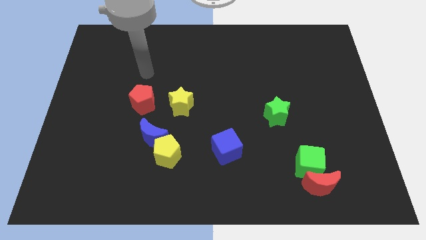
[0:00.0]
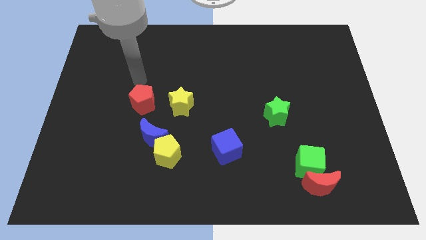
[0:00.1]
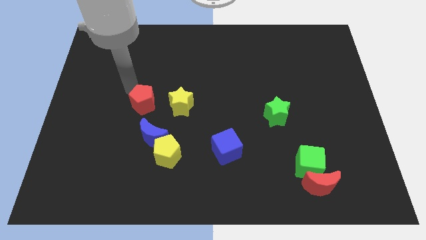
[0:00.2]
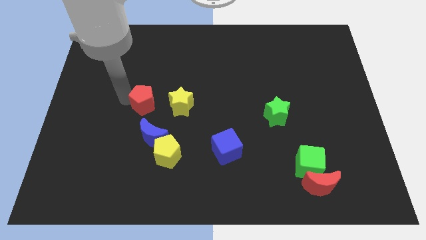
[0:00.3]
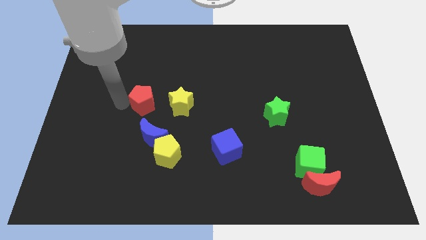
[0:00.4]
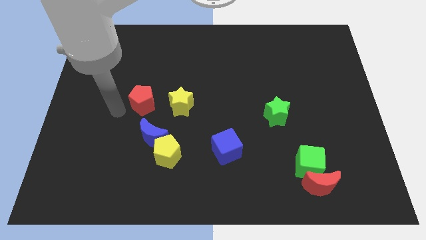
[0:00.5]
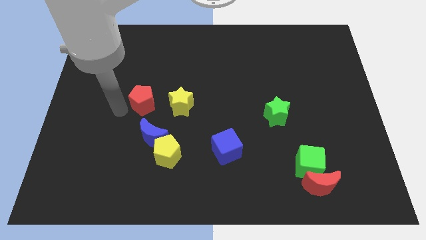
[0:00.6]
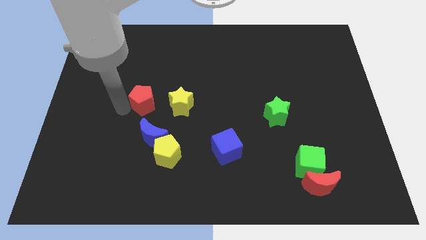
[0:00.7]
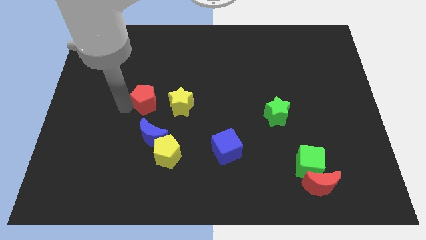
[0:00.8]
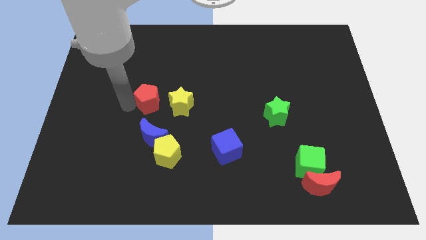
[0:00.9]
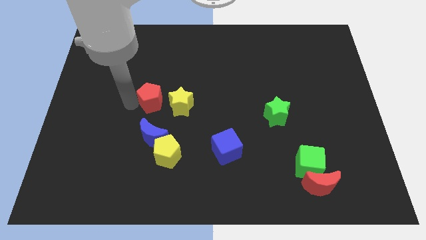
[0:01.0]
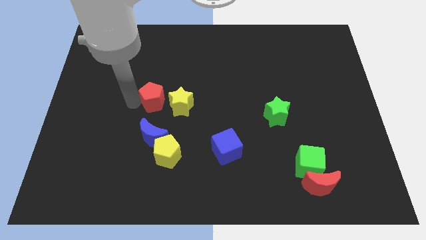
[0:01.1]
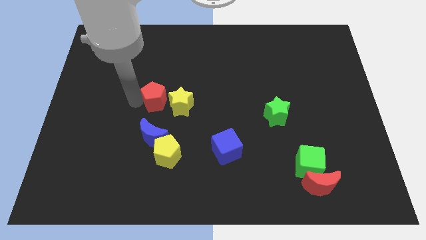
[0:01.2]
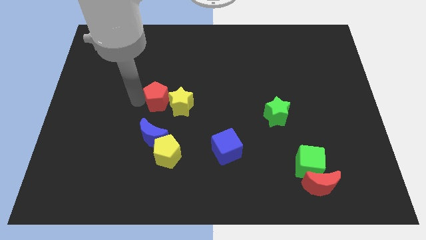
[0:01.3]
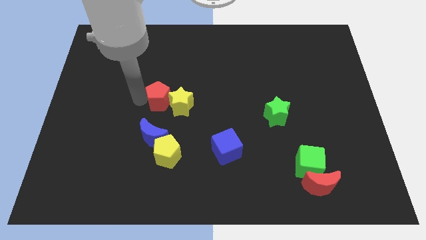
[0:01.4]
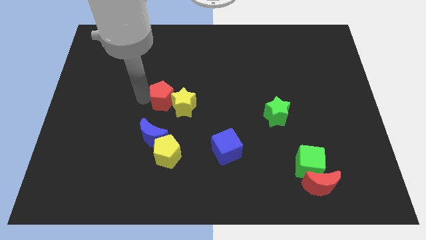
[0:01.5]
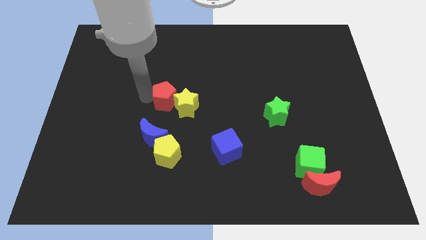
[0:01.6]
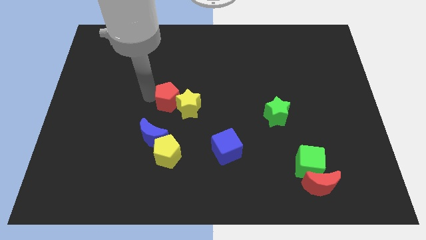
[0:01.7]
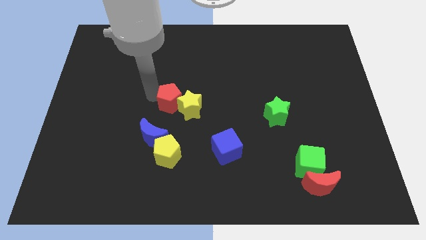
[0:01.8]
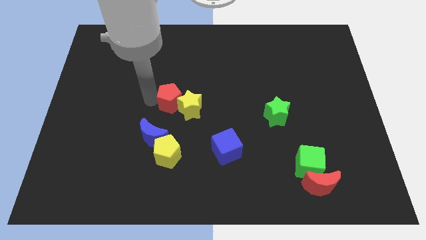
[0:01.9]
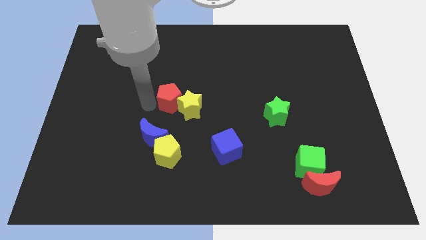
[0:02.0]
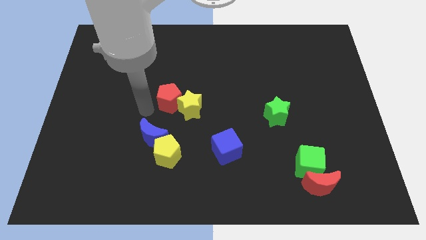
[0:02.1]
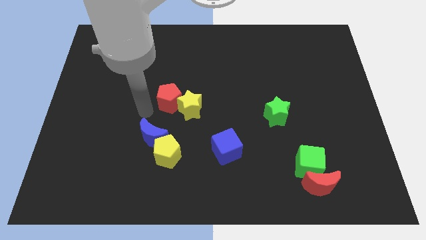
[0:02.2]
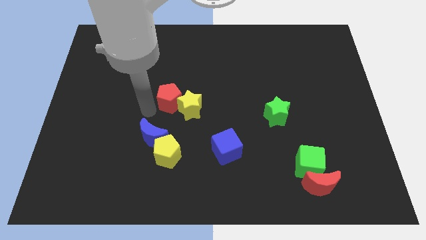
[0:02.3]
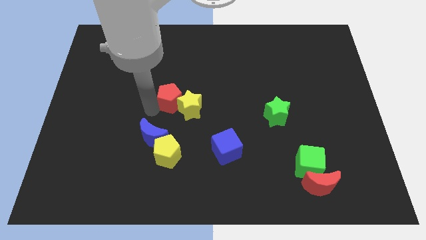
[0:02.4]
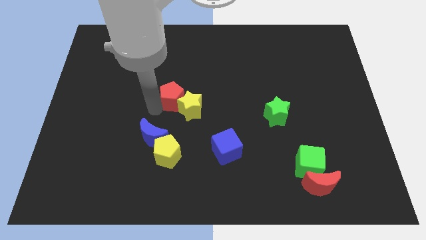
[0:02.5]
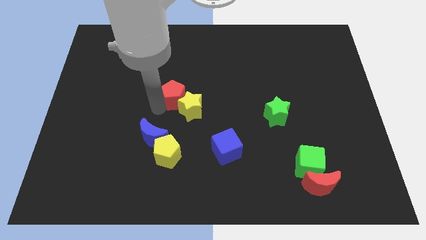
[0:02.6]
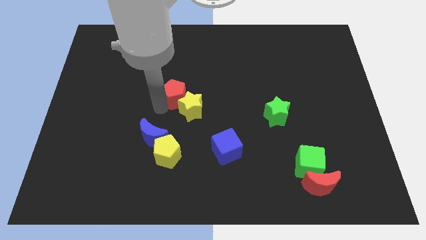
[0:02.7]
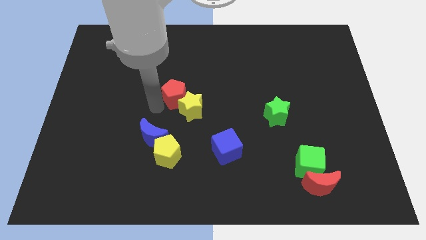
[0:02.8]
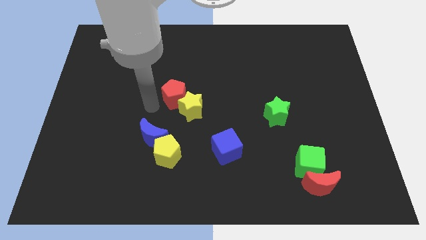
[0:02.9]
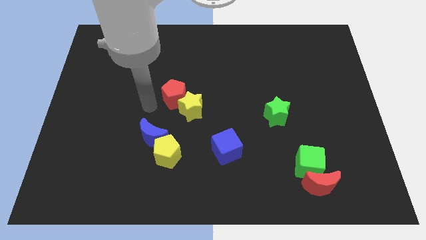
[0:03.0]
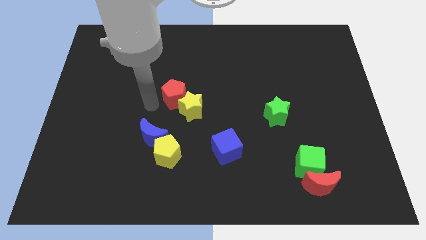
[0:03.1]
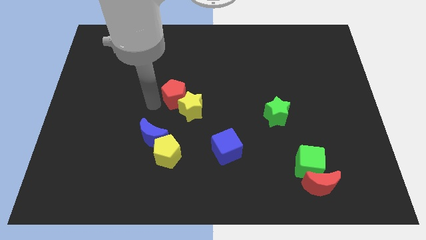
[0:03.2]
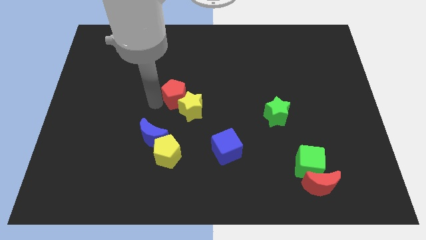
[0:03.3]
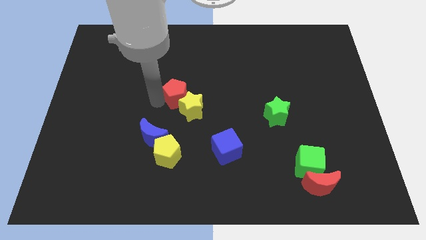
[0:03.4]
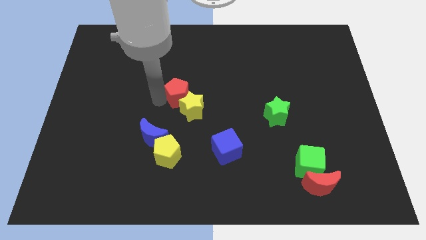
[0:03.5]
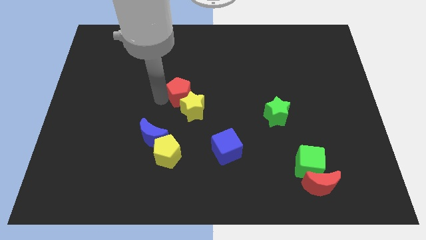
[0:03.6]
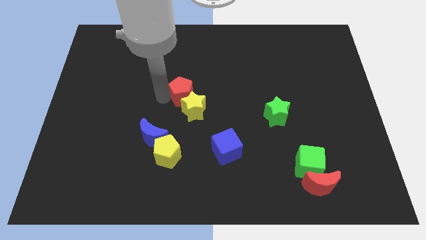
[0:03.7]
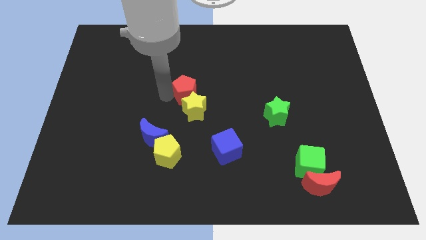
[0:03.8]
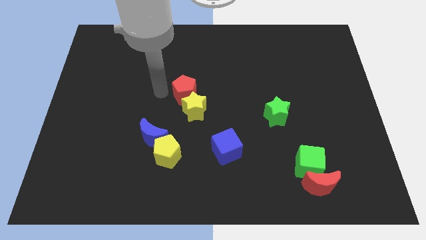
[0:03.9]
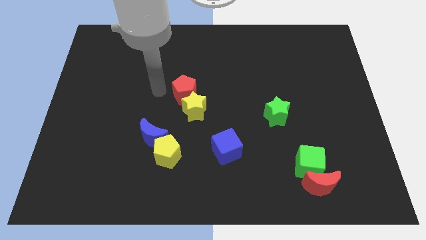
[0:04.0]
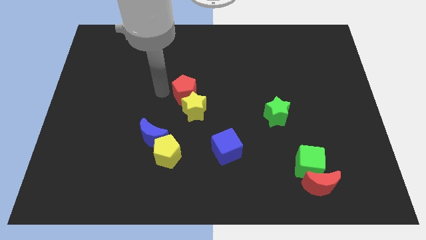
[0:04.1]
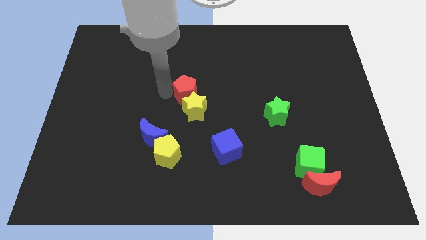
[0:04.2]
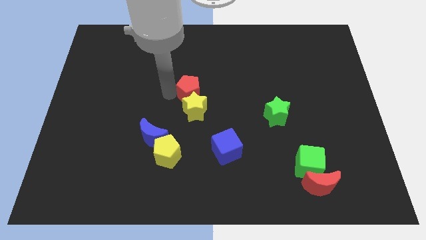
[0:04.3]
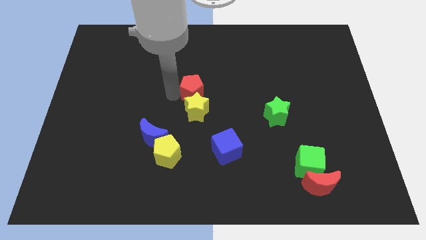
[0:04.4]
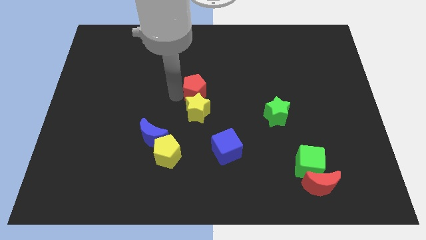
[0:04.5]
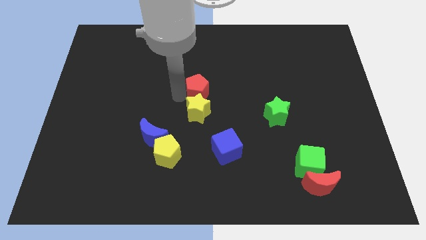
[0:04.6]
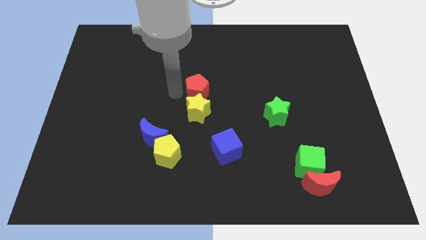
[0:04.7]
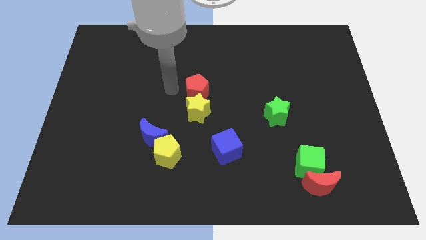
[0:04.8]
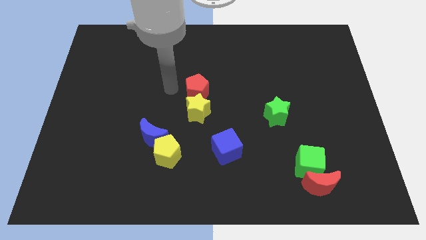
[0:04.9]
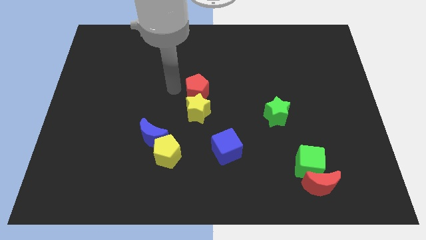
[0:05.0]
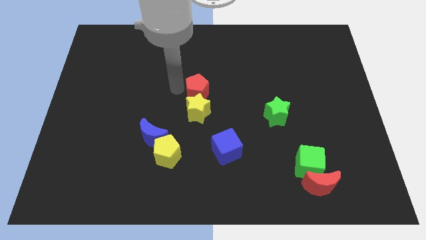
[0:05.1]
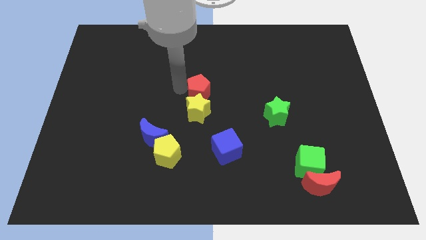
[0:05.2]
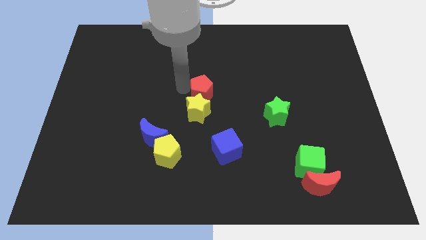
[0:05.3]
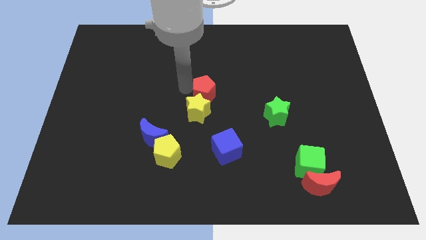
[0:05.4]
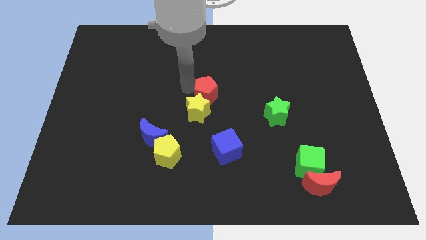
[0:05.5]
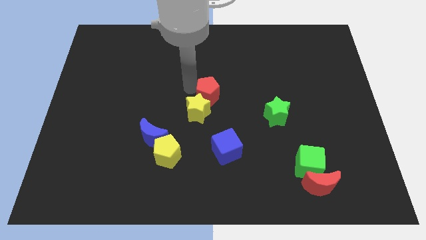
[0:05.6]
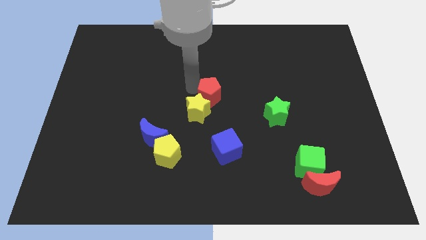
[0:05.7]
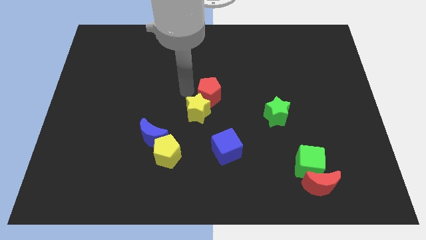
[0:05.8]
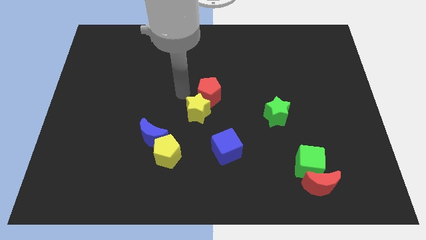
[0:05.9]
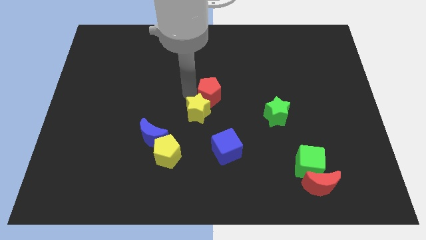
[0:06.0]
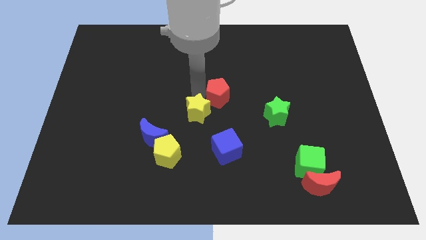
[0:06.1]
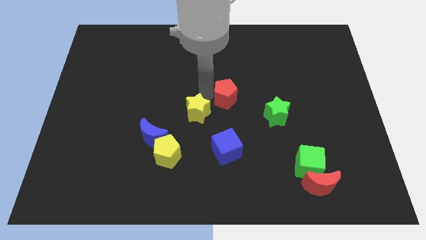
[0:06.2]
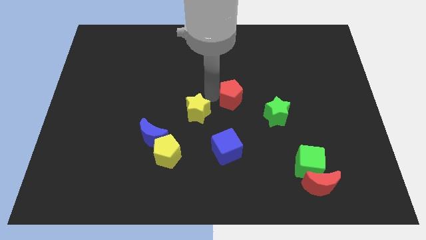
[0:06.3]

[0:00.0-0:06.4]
move the red pentagon to the right

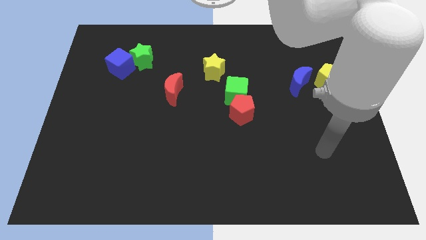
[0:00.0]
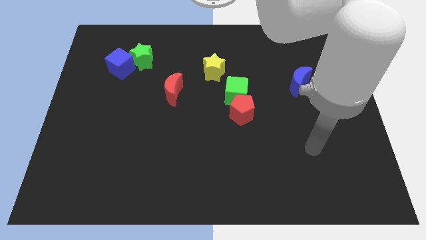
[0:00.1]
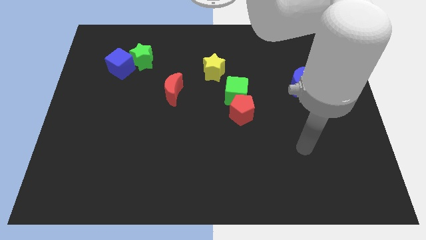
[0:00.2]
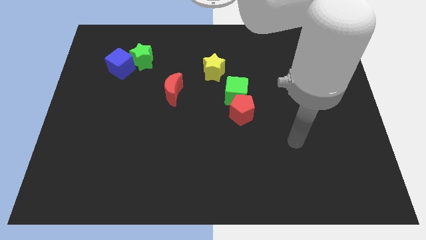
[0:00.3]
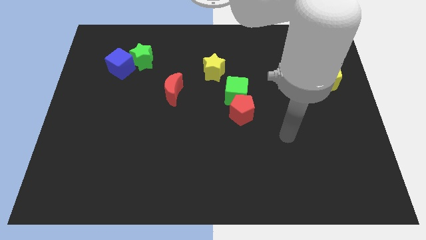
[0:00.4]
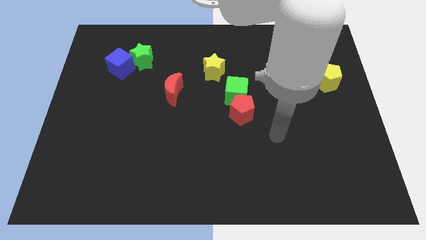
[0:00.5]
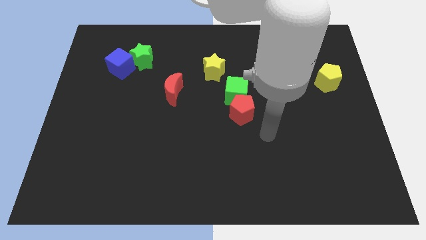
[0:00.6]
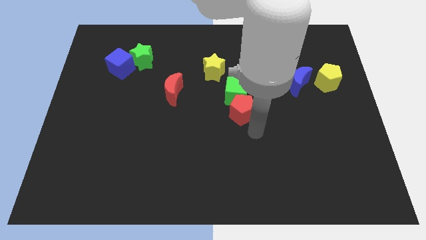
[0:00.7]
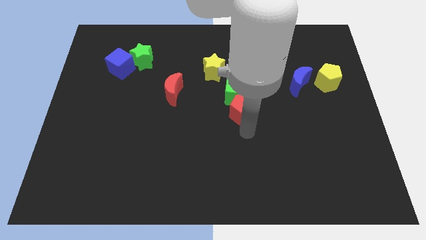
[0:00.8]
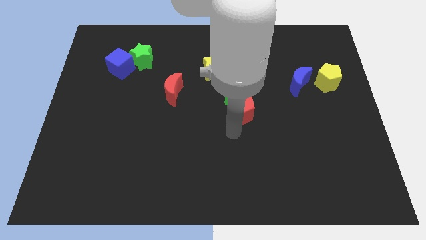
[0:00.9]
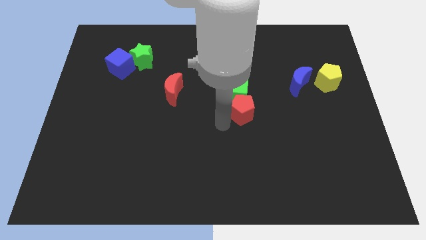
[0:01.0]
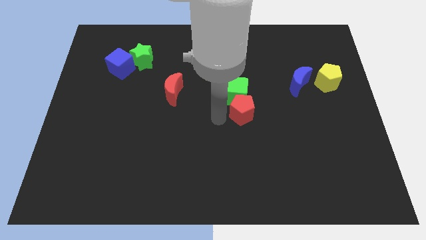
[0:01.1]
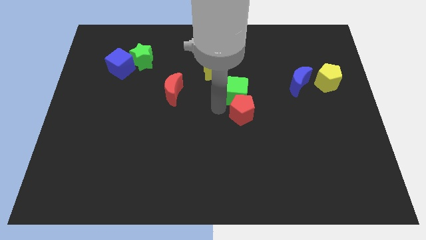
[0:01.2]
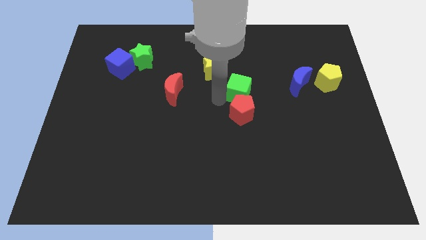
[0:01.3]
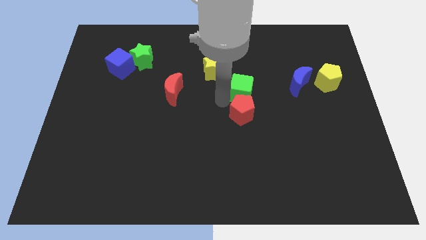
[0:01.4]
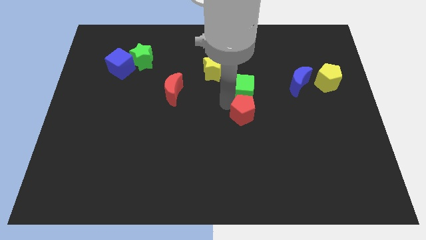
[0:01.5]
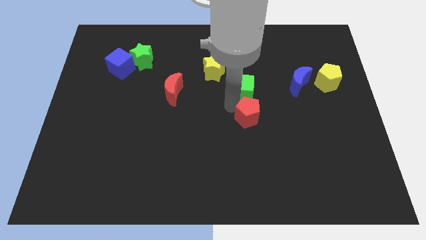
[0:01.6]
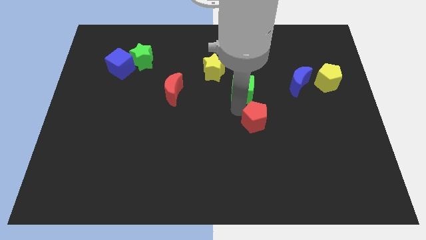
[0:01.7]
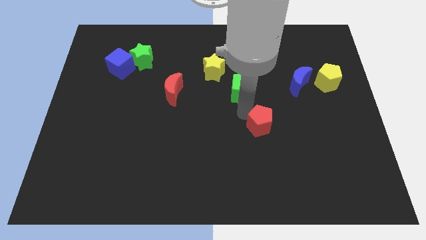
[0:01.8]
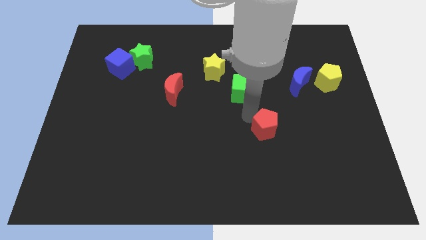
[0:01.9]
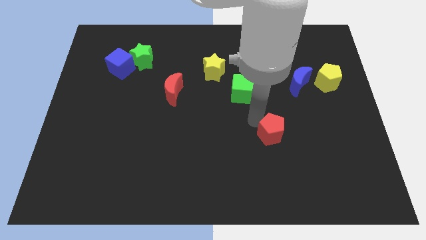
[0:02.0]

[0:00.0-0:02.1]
slide the red pentagon somewhat down and then right
